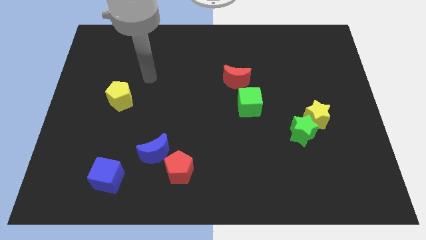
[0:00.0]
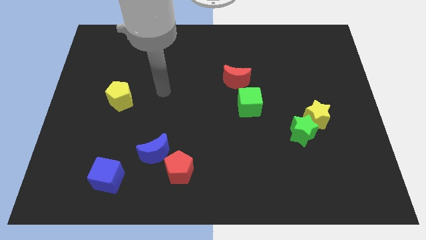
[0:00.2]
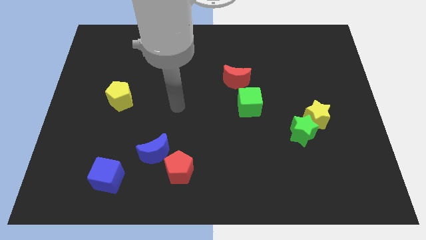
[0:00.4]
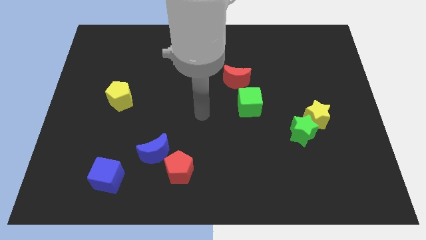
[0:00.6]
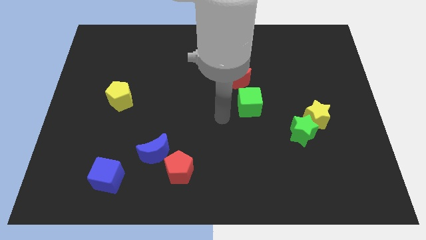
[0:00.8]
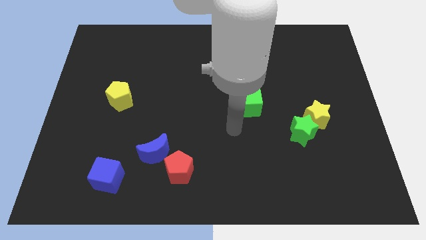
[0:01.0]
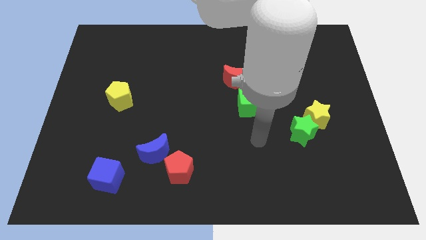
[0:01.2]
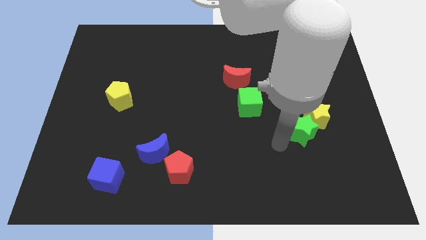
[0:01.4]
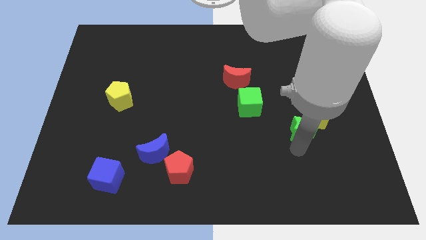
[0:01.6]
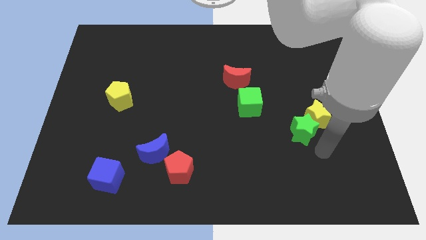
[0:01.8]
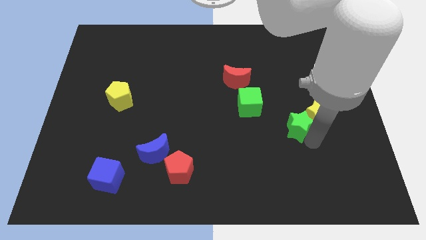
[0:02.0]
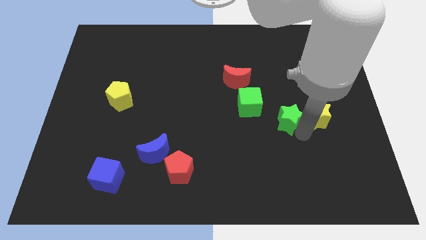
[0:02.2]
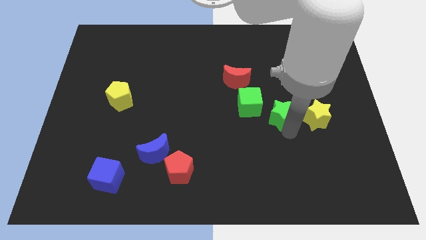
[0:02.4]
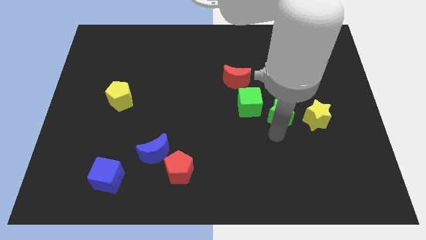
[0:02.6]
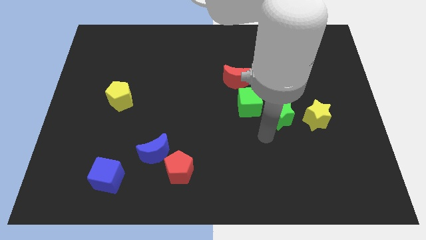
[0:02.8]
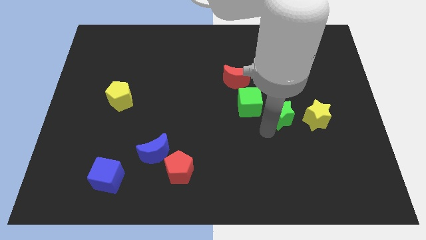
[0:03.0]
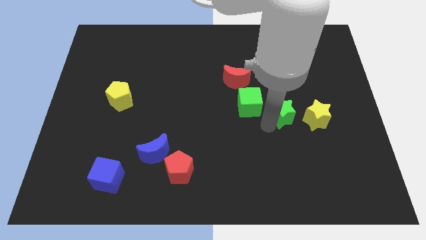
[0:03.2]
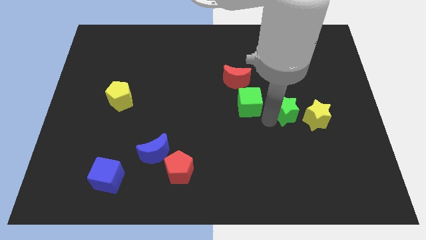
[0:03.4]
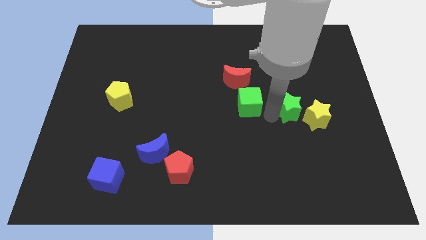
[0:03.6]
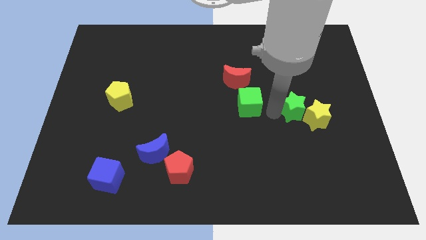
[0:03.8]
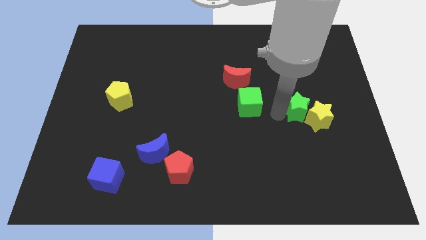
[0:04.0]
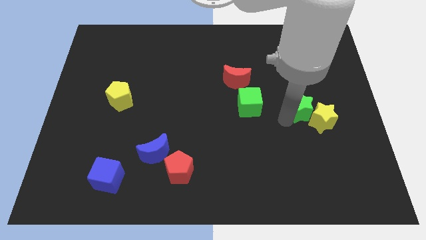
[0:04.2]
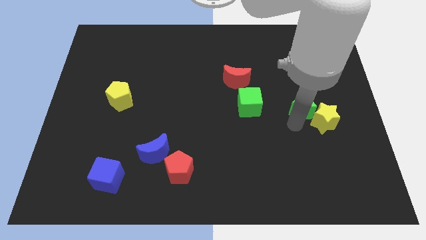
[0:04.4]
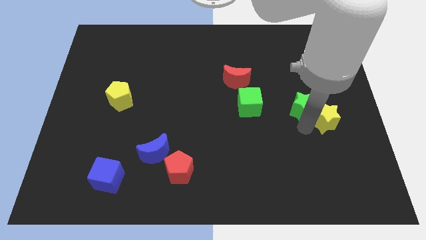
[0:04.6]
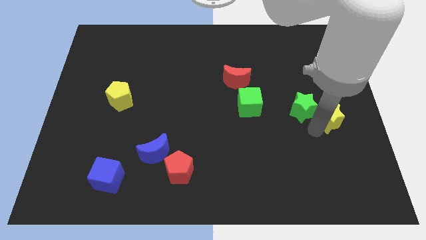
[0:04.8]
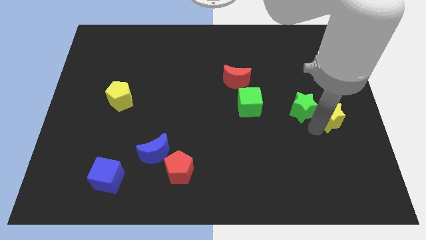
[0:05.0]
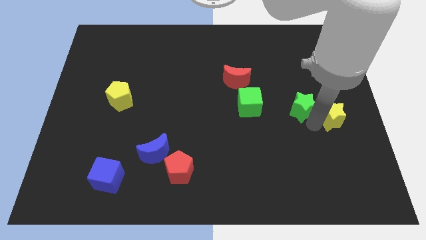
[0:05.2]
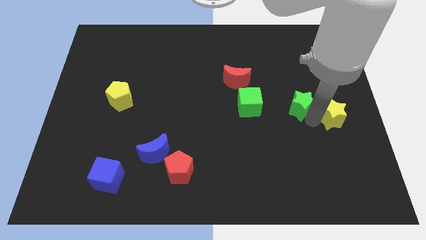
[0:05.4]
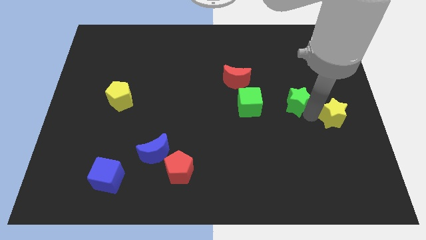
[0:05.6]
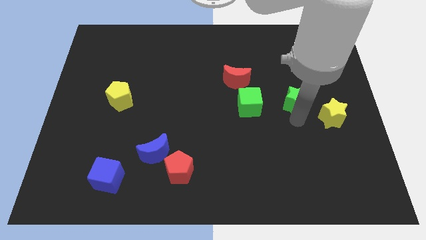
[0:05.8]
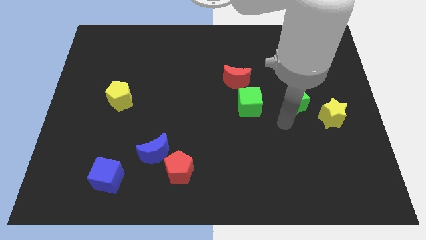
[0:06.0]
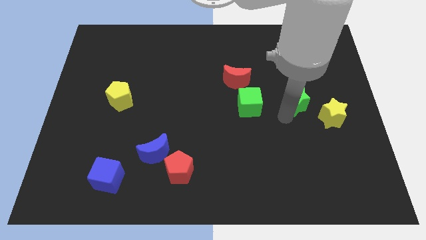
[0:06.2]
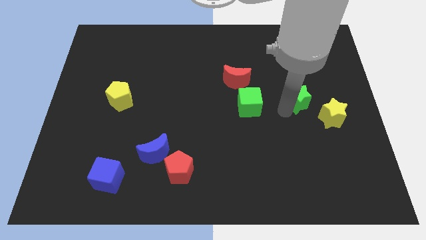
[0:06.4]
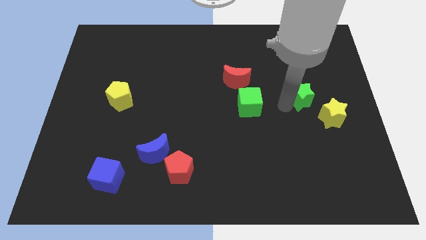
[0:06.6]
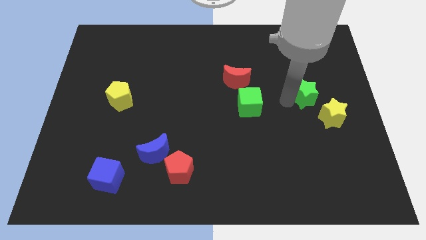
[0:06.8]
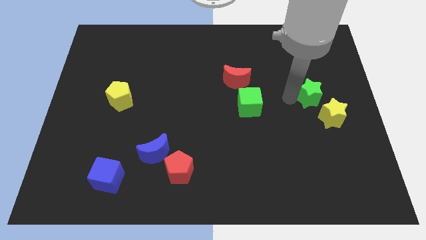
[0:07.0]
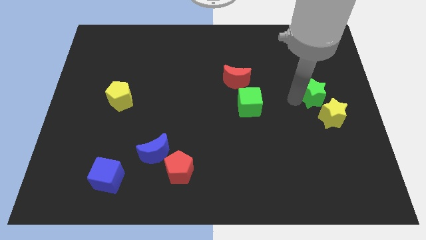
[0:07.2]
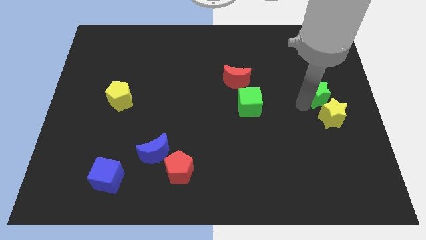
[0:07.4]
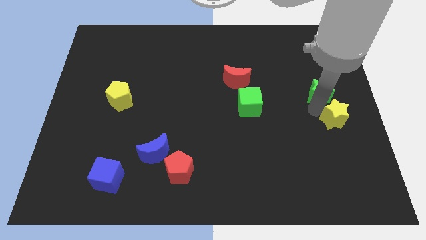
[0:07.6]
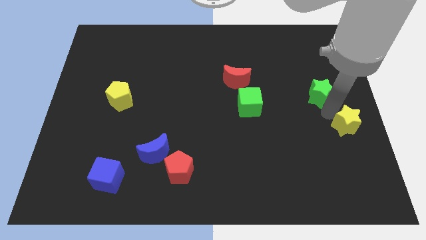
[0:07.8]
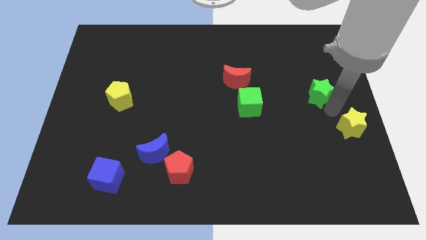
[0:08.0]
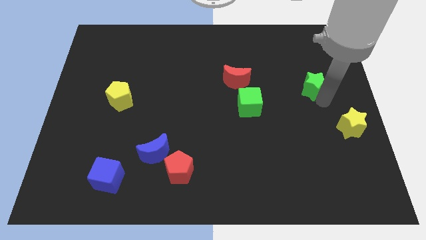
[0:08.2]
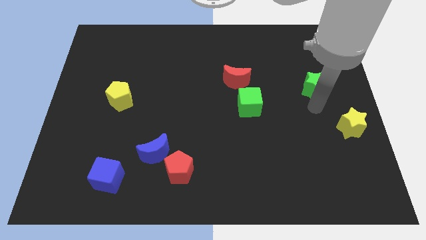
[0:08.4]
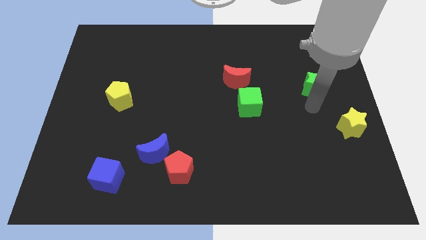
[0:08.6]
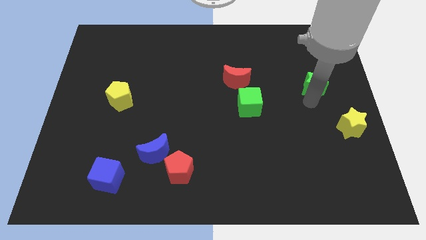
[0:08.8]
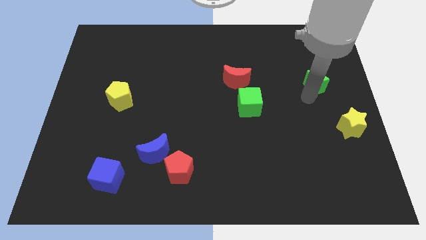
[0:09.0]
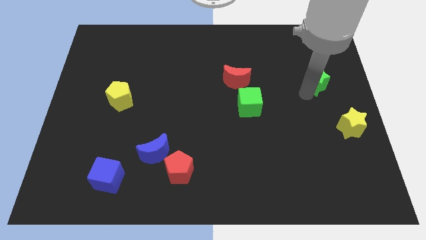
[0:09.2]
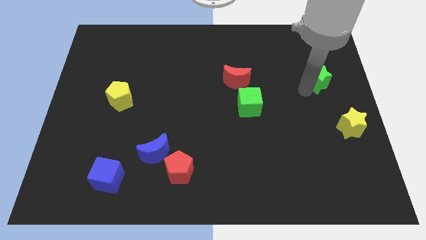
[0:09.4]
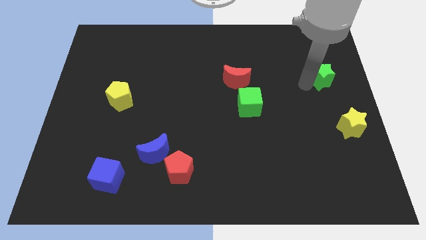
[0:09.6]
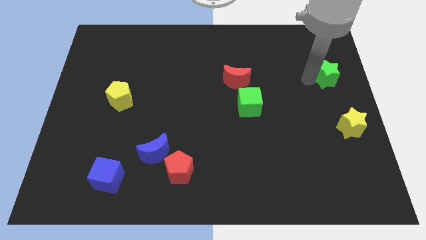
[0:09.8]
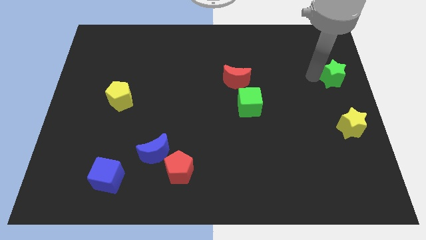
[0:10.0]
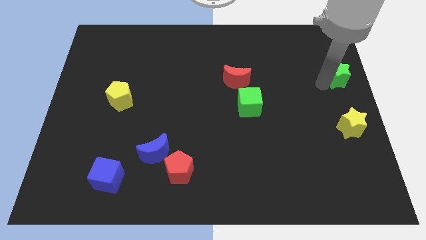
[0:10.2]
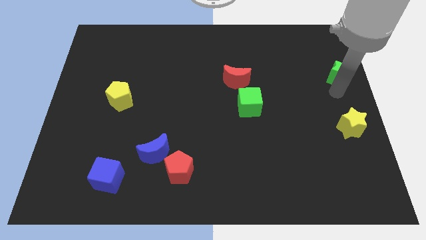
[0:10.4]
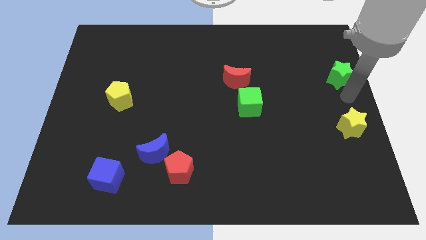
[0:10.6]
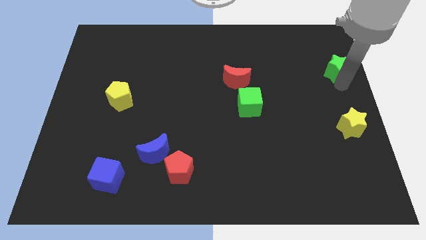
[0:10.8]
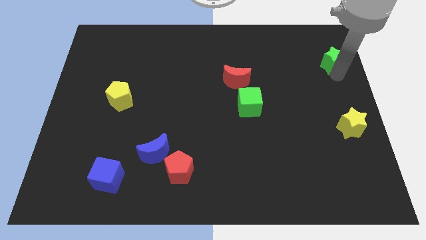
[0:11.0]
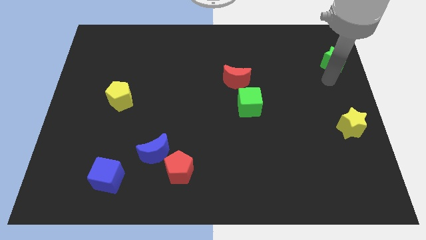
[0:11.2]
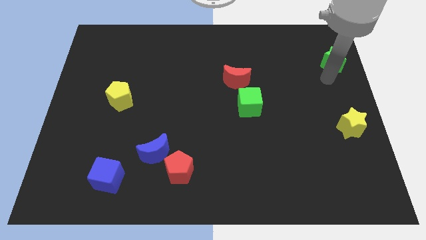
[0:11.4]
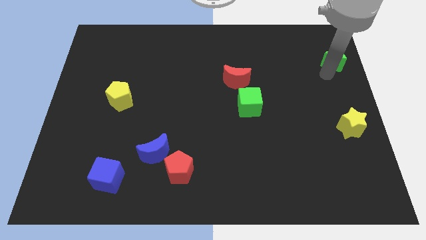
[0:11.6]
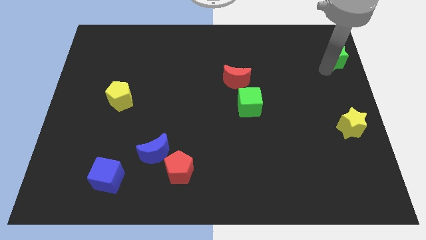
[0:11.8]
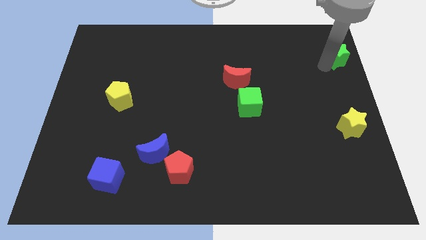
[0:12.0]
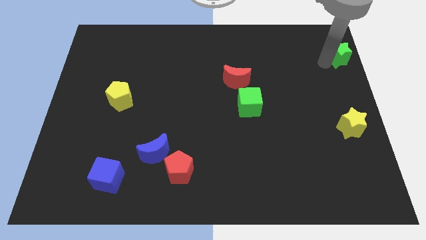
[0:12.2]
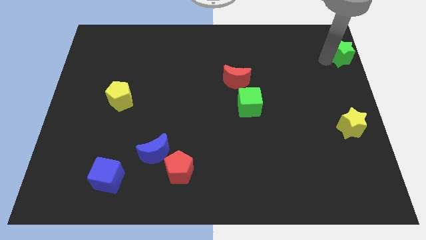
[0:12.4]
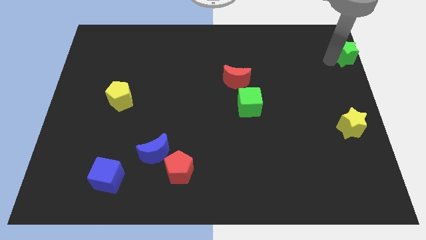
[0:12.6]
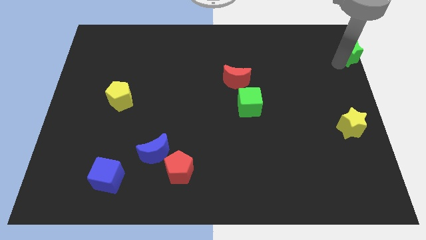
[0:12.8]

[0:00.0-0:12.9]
push the green star to the upper right corner
